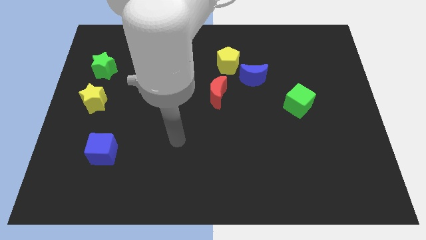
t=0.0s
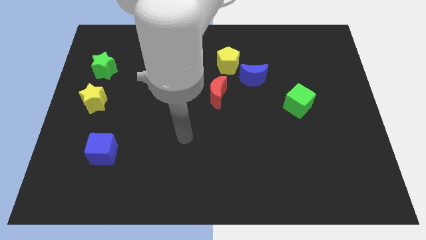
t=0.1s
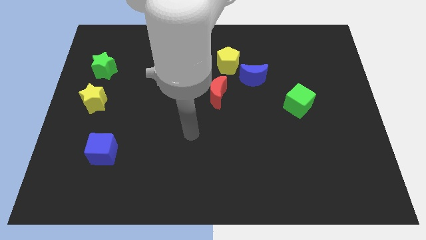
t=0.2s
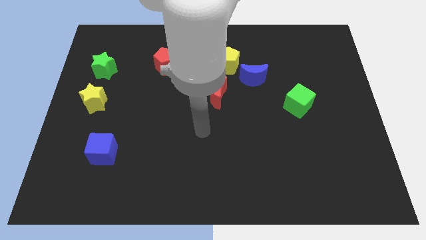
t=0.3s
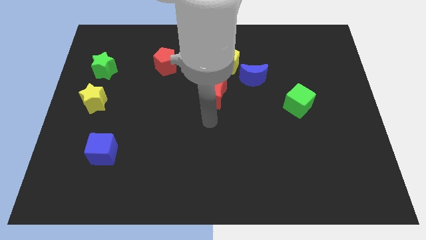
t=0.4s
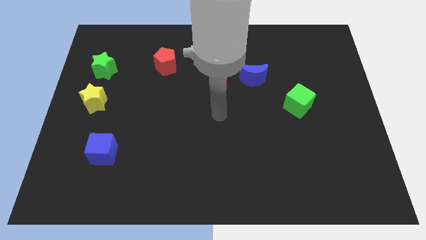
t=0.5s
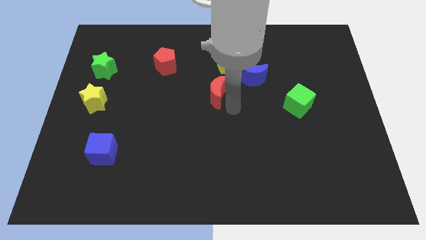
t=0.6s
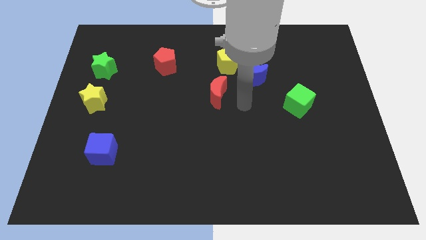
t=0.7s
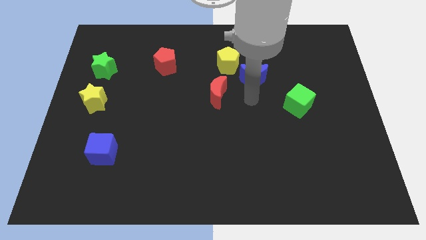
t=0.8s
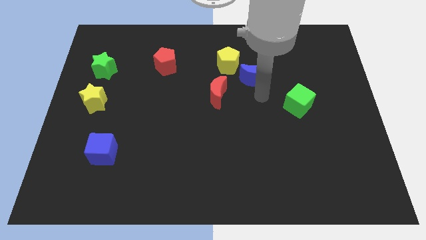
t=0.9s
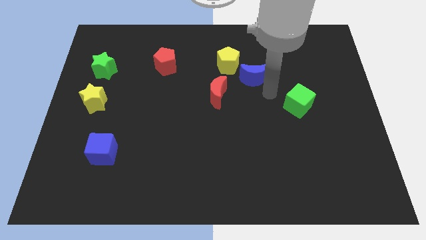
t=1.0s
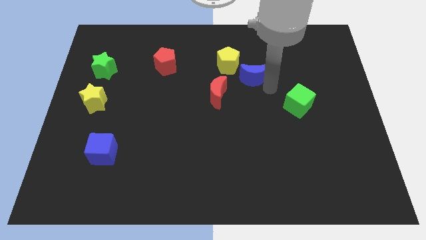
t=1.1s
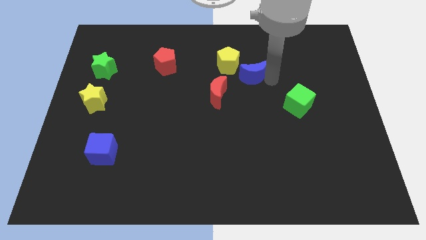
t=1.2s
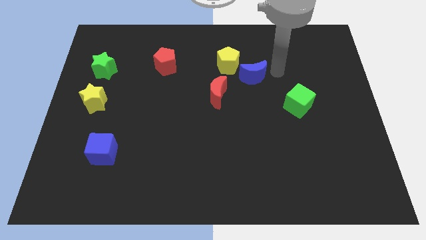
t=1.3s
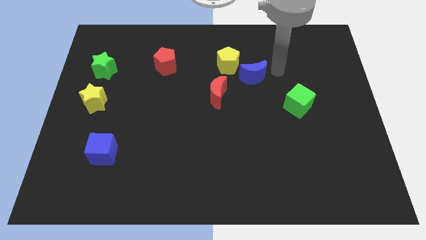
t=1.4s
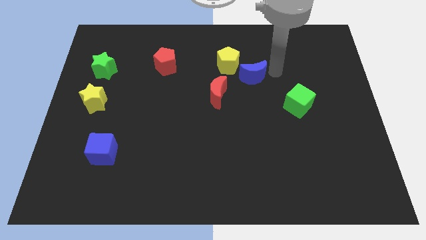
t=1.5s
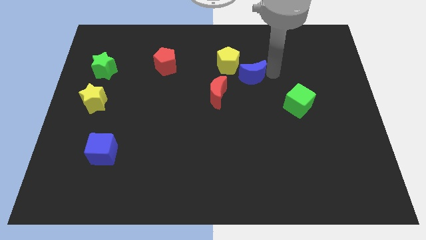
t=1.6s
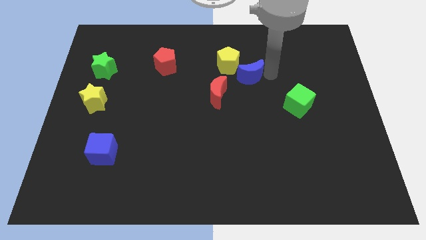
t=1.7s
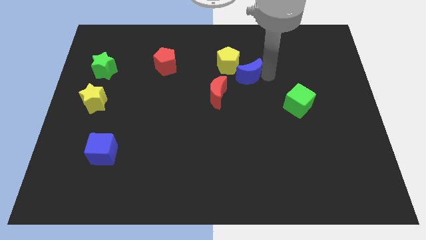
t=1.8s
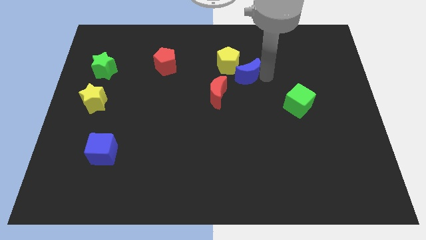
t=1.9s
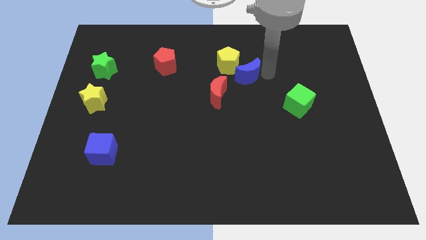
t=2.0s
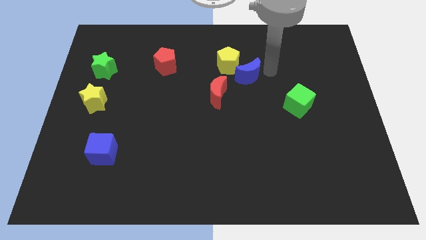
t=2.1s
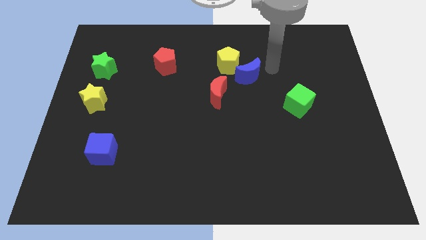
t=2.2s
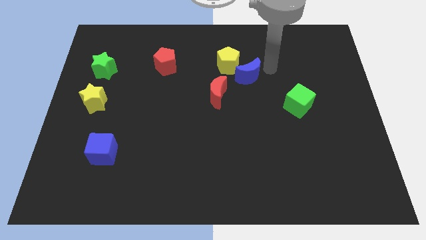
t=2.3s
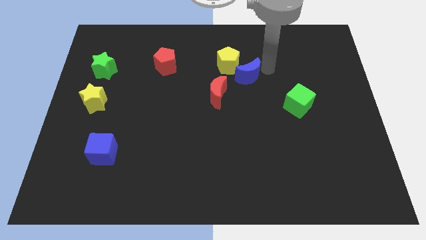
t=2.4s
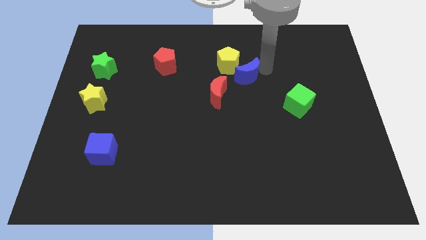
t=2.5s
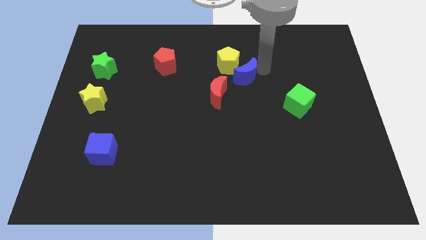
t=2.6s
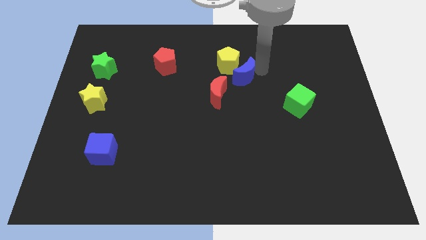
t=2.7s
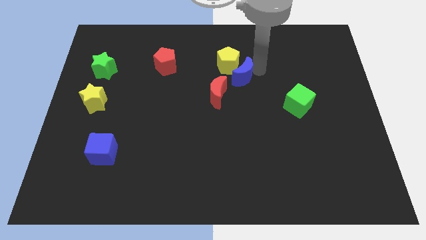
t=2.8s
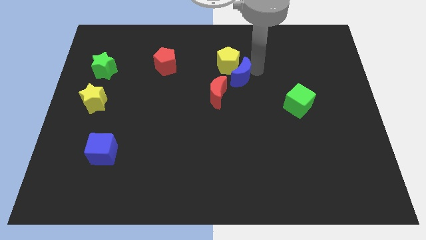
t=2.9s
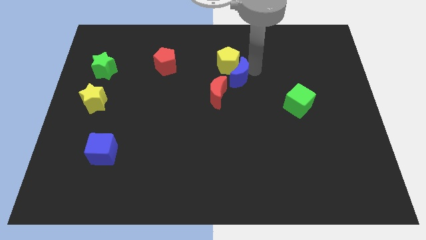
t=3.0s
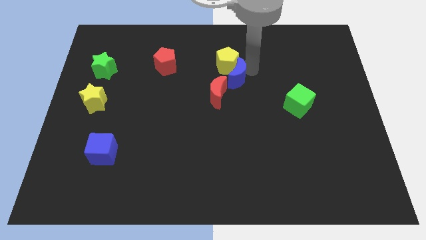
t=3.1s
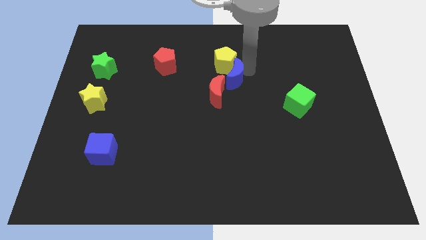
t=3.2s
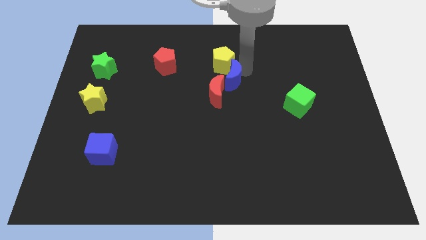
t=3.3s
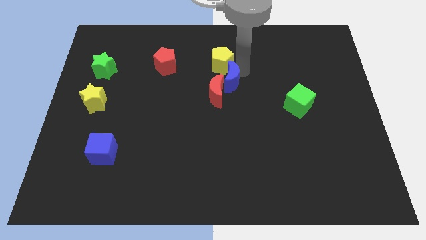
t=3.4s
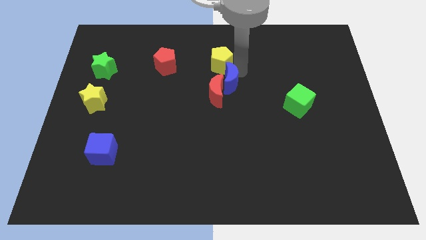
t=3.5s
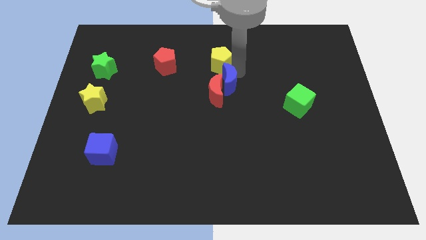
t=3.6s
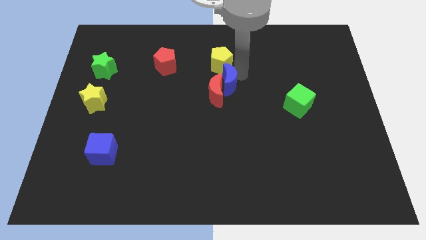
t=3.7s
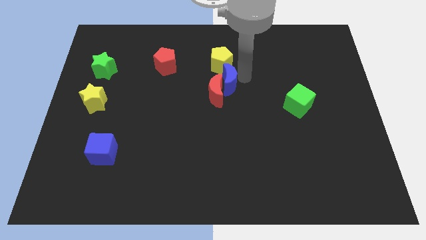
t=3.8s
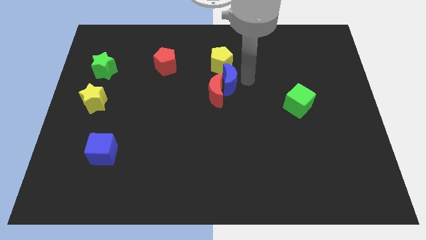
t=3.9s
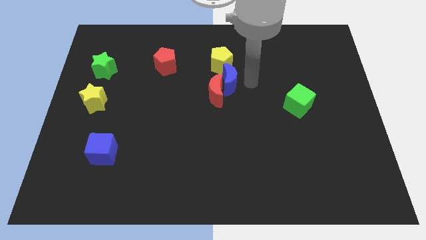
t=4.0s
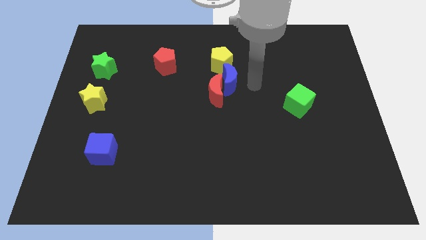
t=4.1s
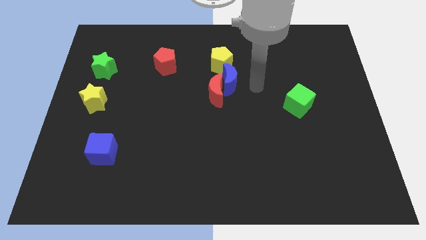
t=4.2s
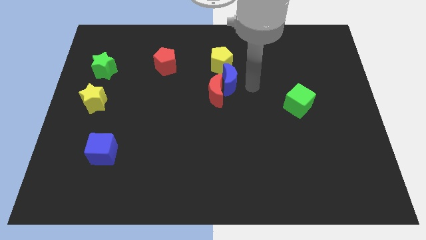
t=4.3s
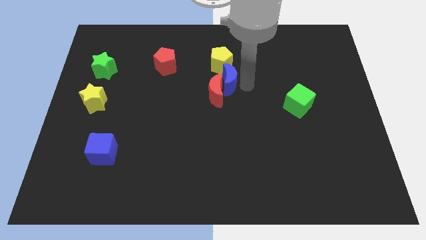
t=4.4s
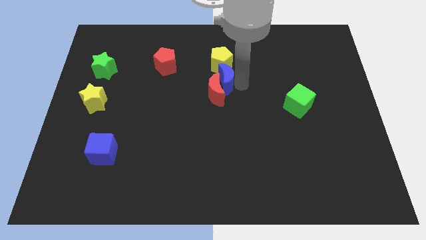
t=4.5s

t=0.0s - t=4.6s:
slightly slide the blue moon left

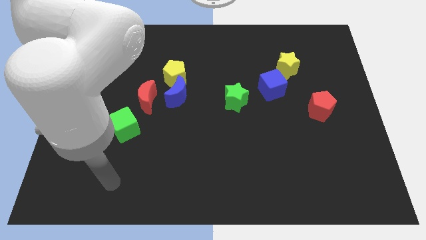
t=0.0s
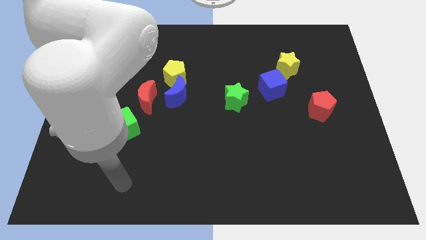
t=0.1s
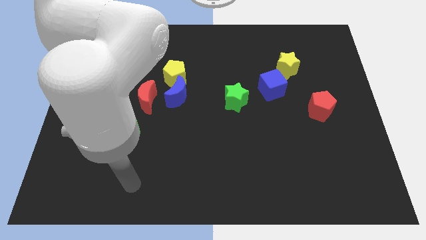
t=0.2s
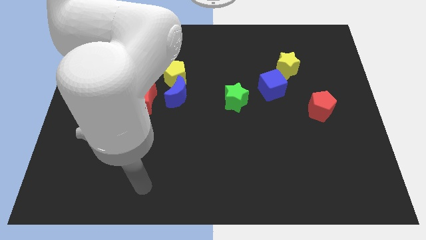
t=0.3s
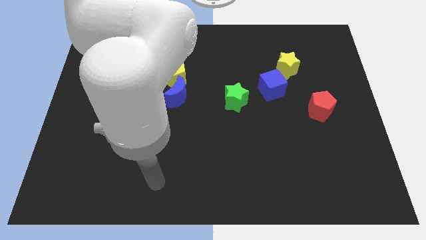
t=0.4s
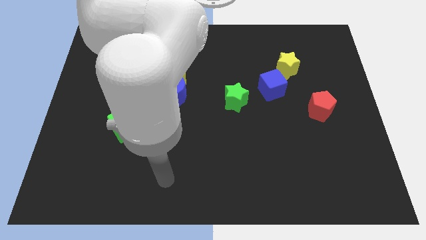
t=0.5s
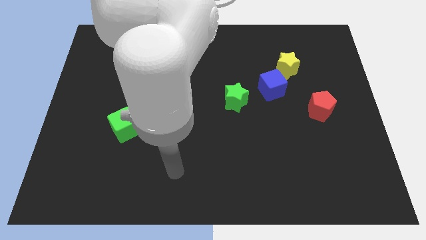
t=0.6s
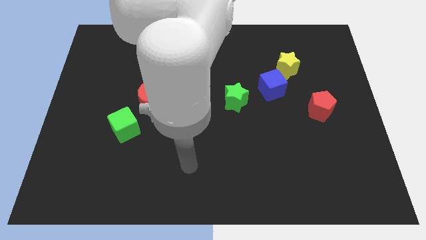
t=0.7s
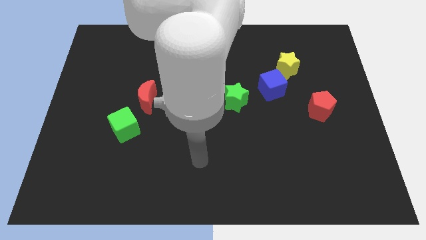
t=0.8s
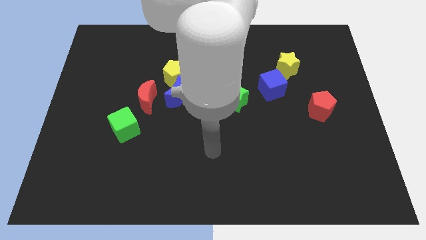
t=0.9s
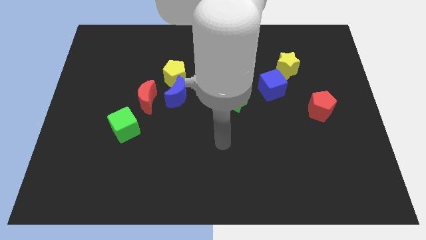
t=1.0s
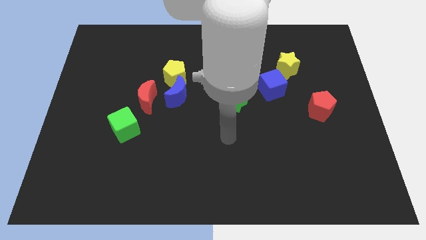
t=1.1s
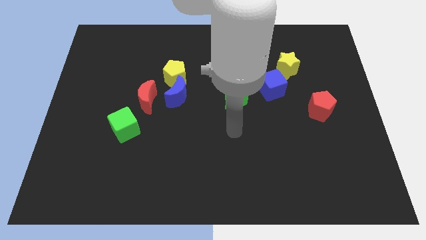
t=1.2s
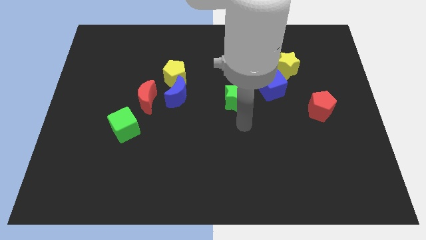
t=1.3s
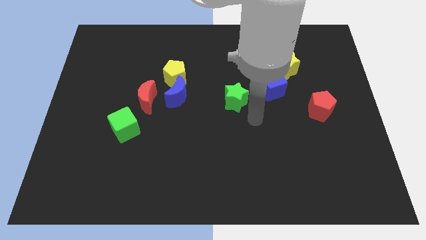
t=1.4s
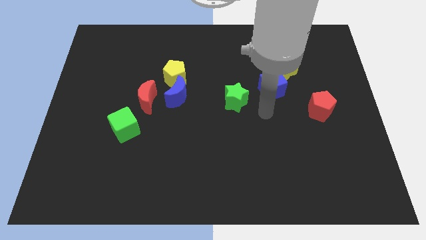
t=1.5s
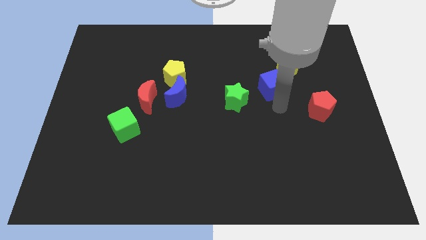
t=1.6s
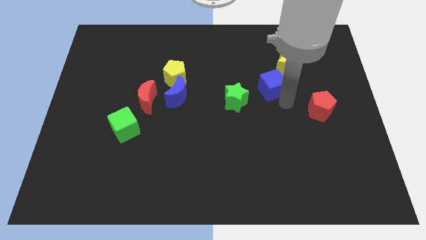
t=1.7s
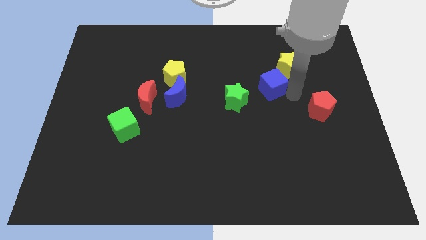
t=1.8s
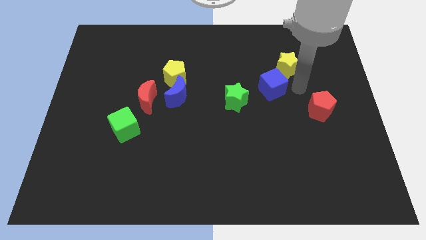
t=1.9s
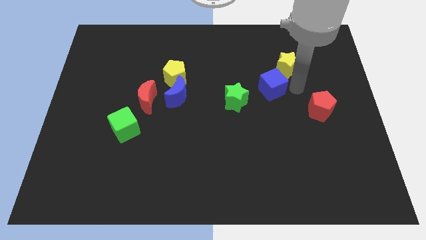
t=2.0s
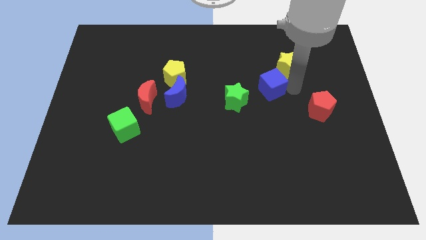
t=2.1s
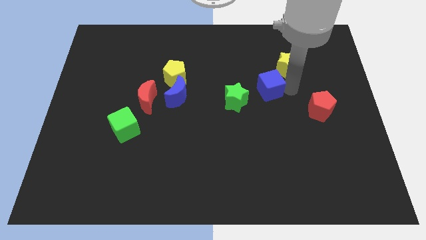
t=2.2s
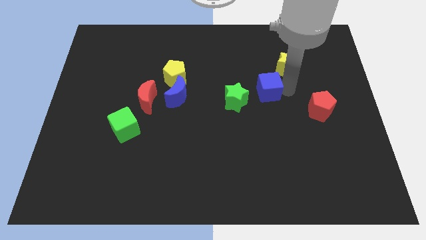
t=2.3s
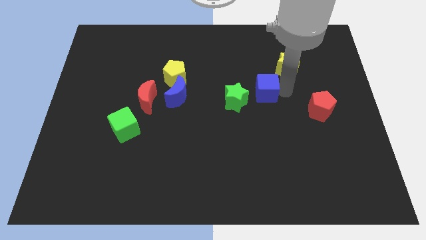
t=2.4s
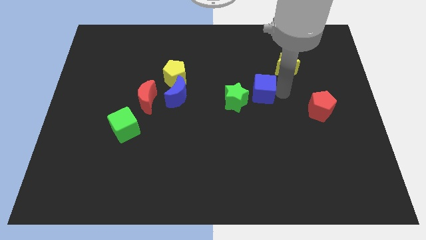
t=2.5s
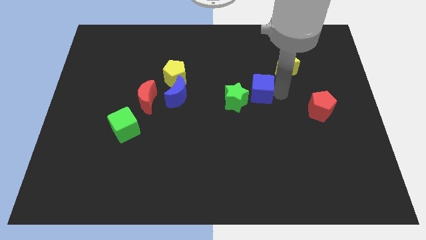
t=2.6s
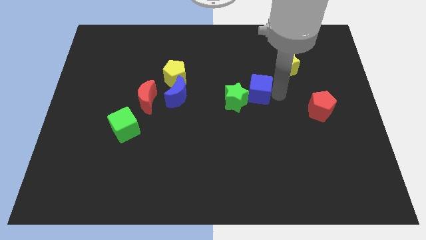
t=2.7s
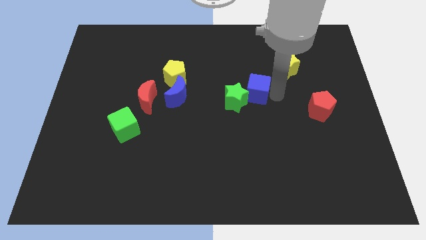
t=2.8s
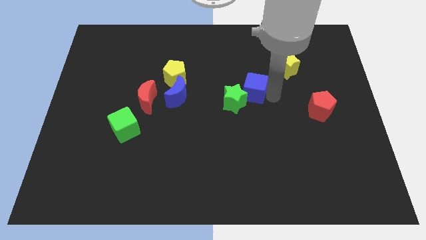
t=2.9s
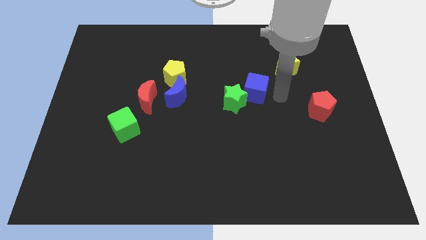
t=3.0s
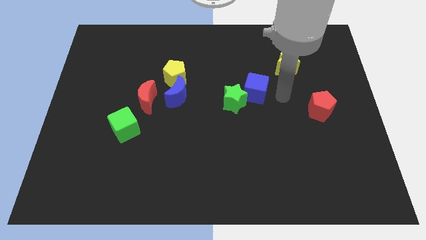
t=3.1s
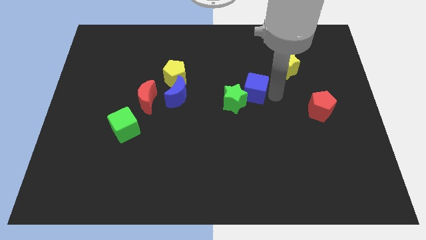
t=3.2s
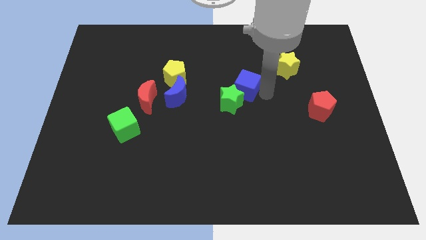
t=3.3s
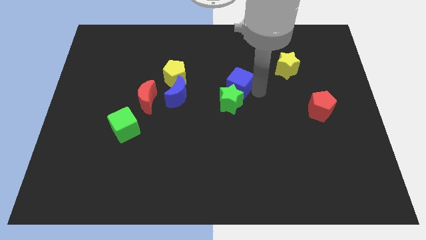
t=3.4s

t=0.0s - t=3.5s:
slide the blue cube slightly left
